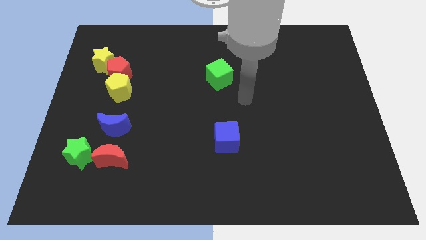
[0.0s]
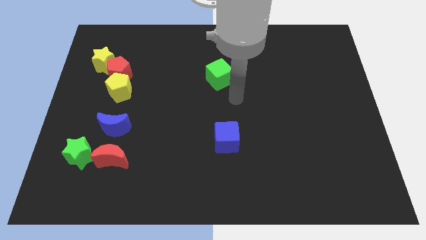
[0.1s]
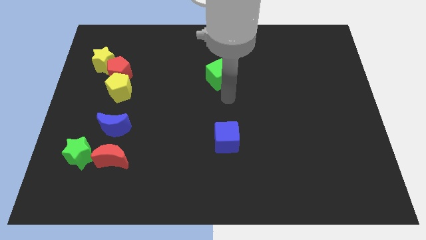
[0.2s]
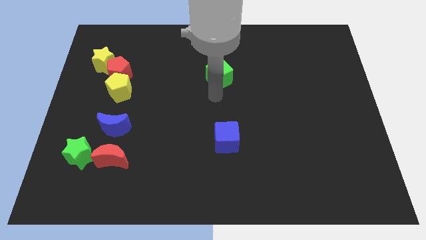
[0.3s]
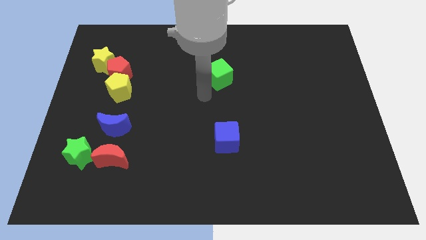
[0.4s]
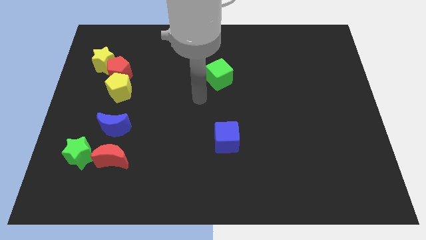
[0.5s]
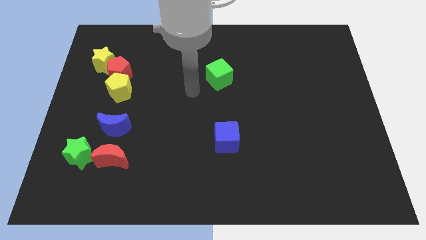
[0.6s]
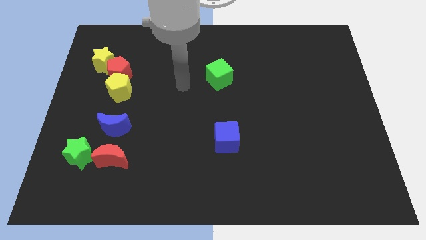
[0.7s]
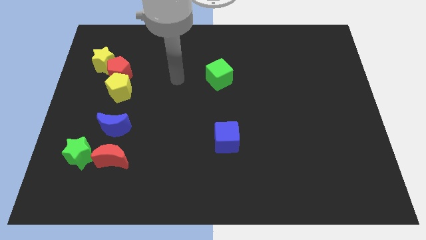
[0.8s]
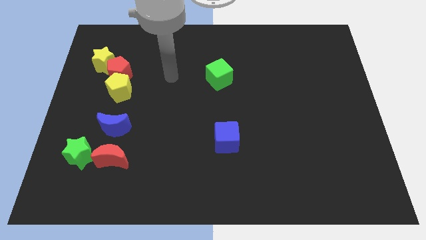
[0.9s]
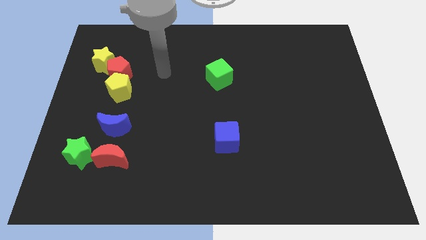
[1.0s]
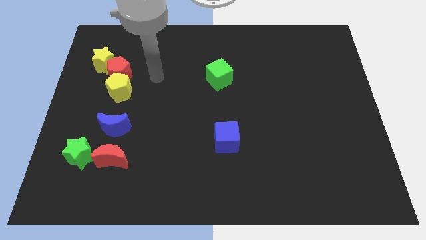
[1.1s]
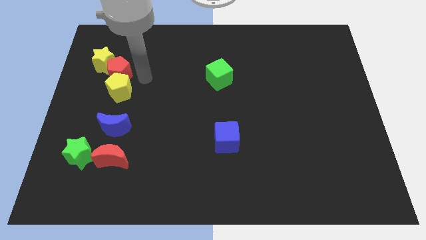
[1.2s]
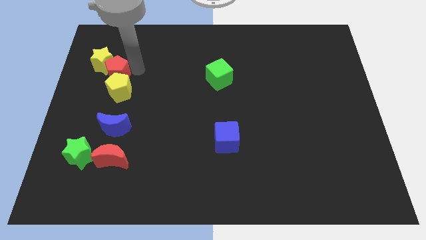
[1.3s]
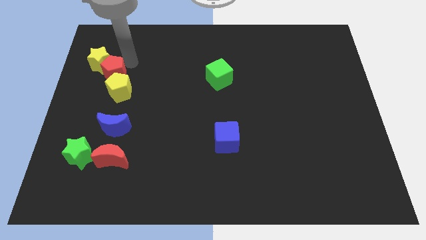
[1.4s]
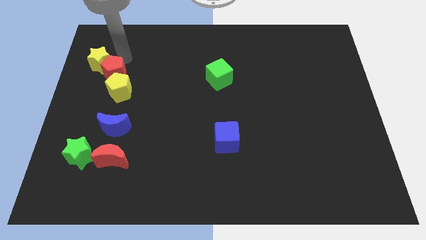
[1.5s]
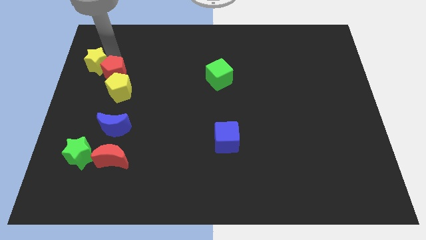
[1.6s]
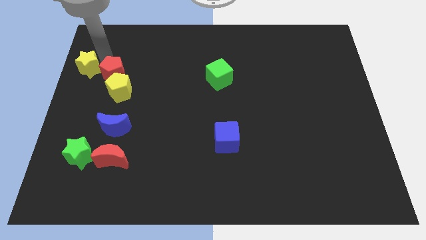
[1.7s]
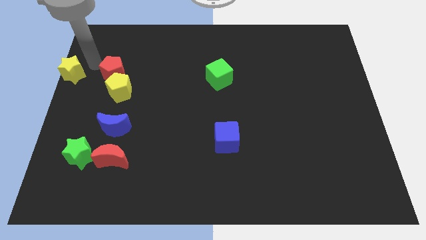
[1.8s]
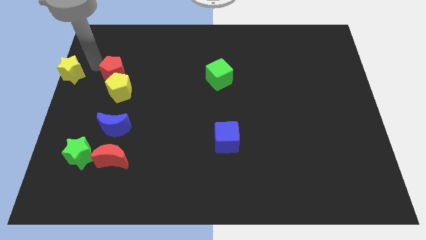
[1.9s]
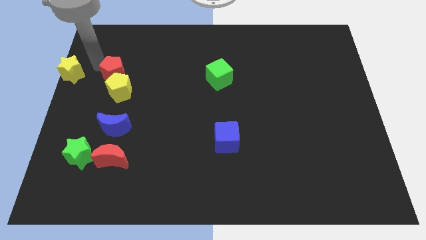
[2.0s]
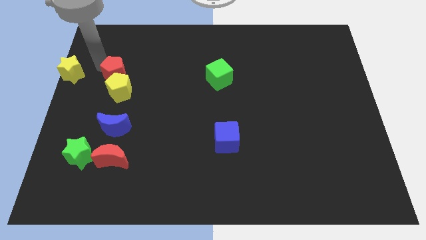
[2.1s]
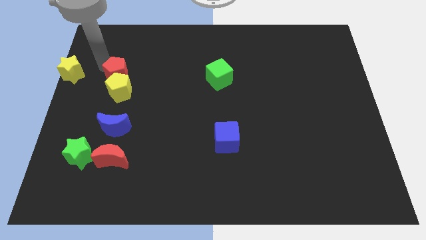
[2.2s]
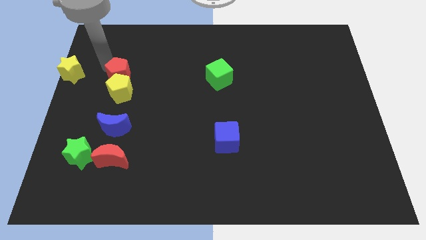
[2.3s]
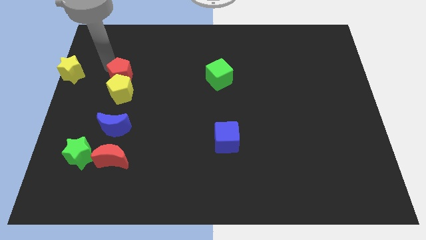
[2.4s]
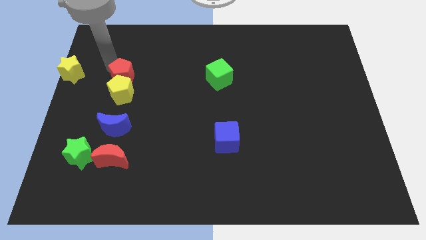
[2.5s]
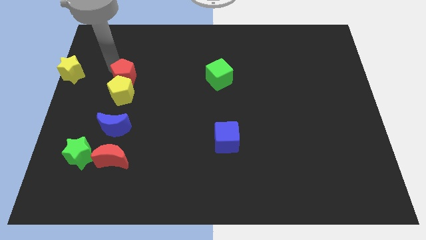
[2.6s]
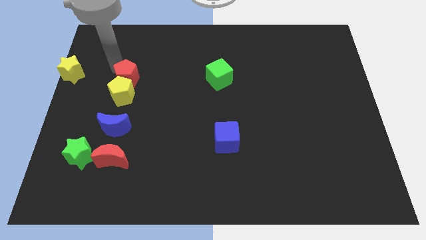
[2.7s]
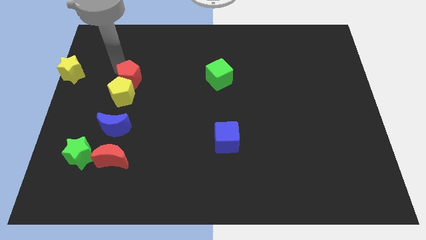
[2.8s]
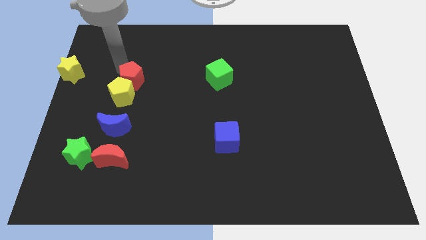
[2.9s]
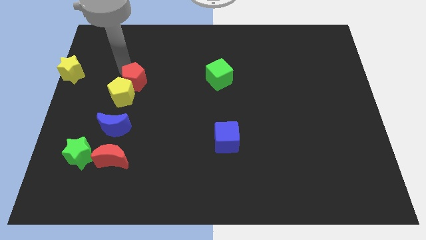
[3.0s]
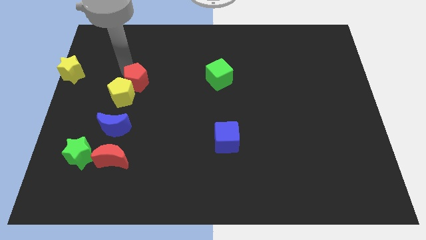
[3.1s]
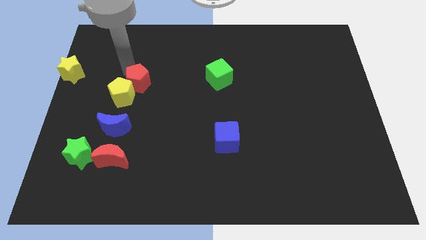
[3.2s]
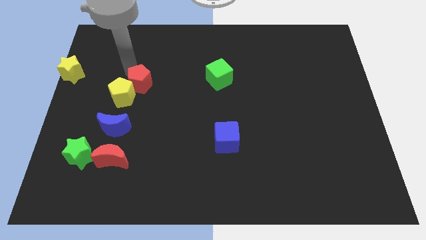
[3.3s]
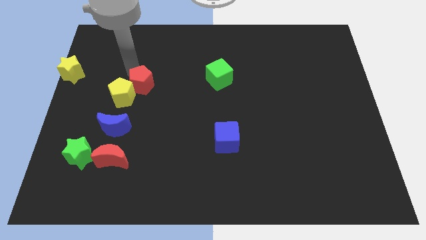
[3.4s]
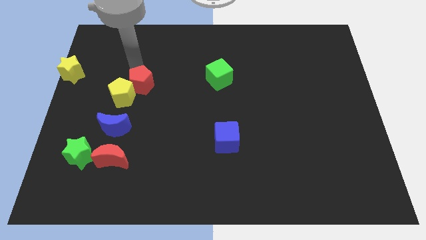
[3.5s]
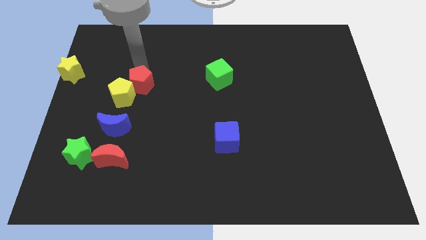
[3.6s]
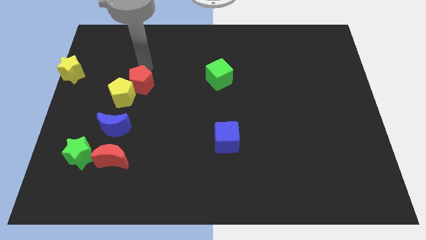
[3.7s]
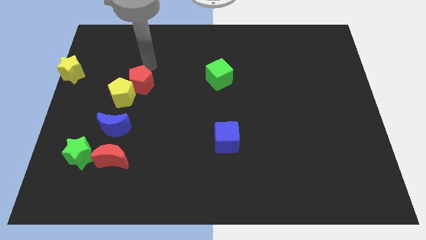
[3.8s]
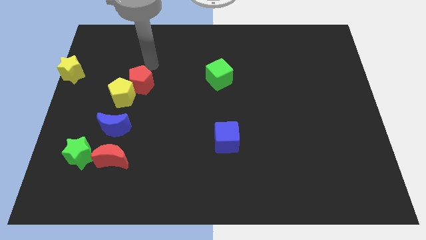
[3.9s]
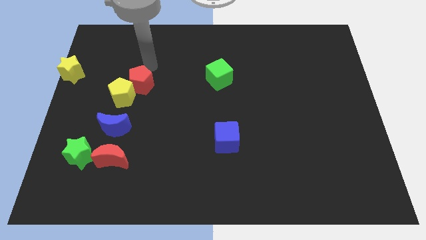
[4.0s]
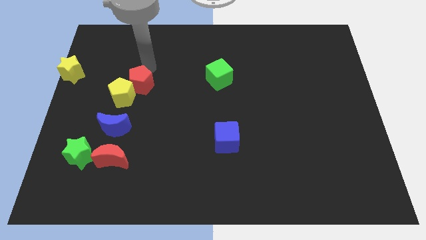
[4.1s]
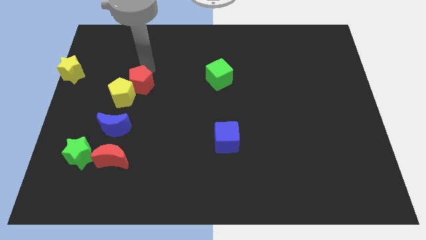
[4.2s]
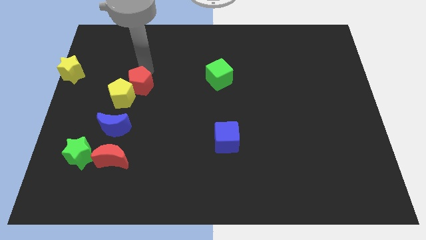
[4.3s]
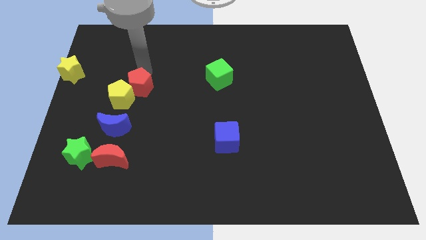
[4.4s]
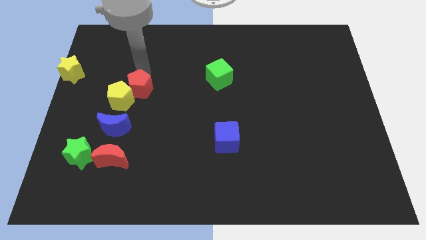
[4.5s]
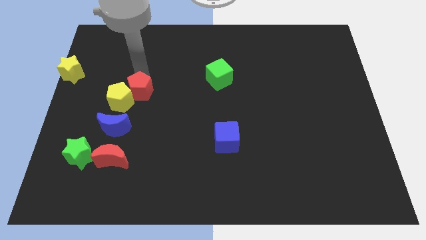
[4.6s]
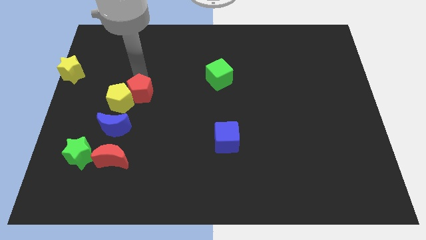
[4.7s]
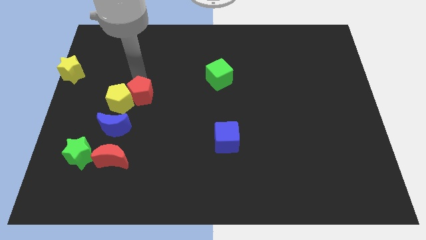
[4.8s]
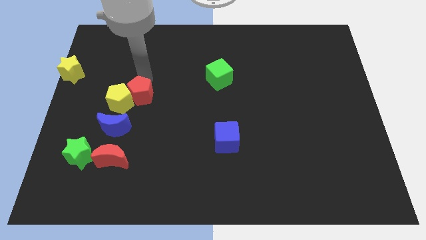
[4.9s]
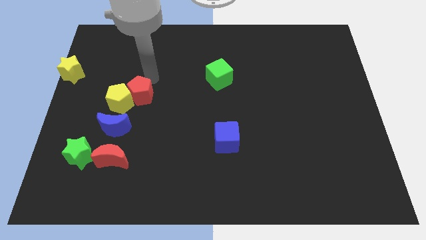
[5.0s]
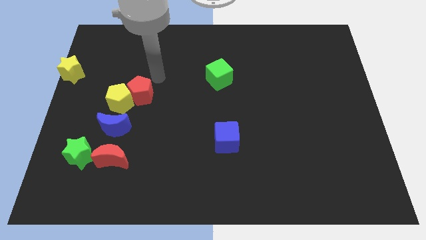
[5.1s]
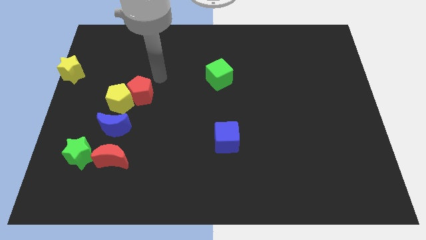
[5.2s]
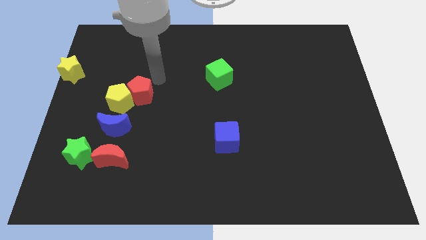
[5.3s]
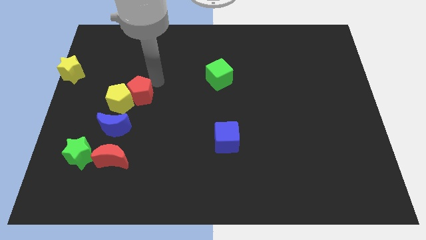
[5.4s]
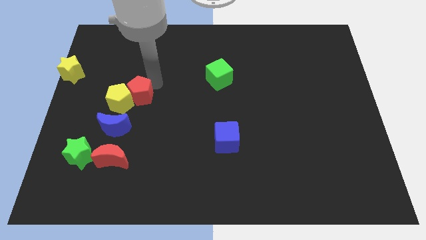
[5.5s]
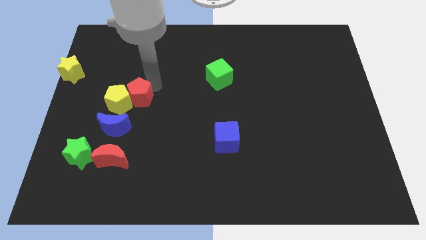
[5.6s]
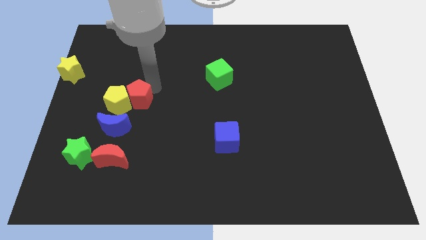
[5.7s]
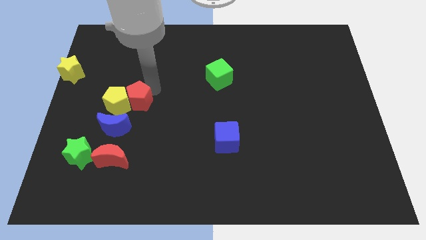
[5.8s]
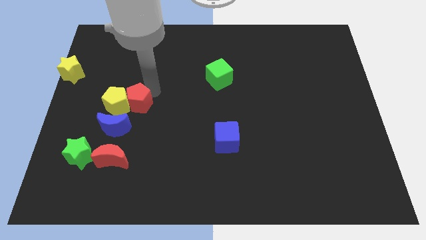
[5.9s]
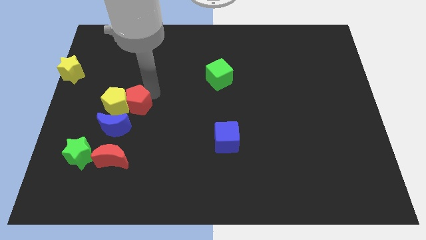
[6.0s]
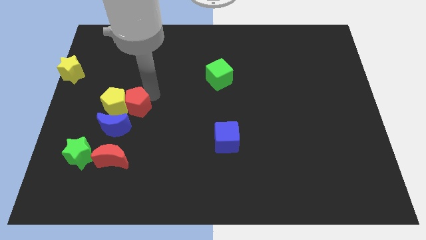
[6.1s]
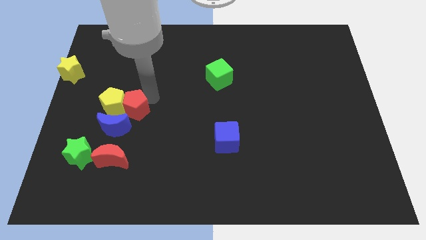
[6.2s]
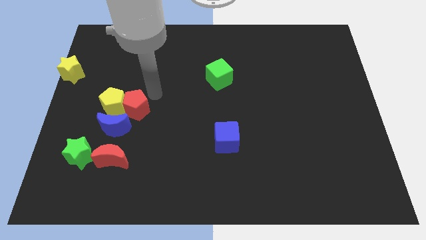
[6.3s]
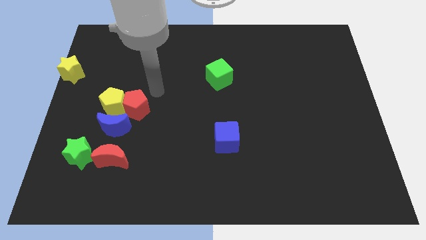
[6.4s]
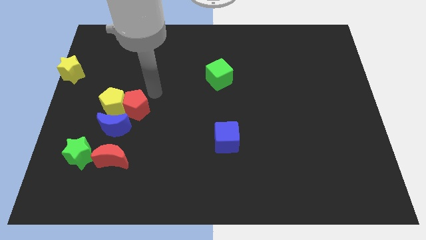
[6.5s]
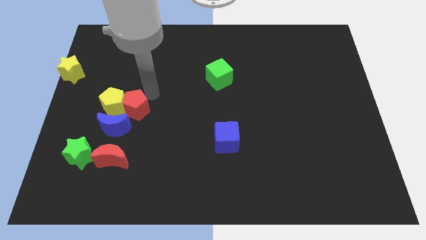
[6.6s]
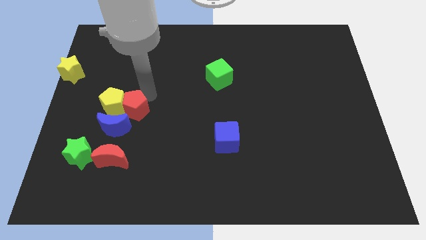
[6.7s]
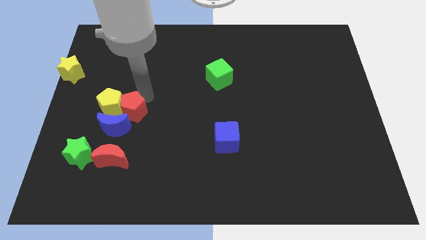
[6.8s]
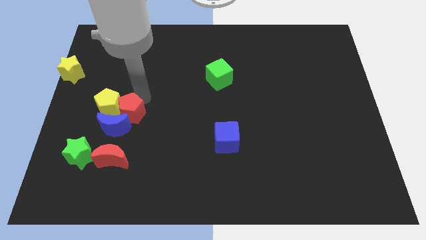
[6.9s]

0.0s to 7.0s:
put the red pentagon next to the blue moon

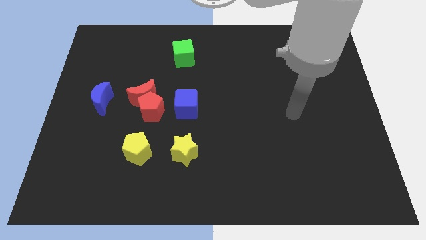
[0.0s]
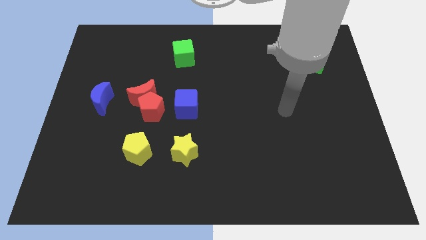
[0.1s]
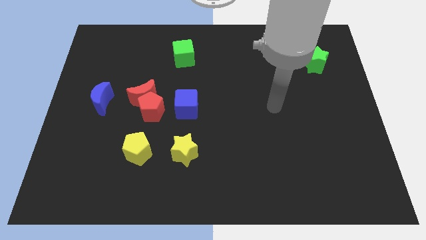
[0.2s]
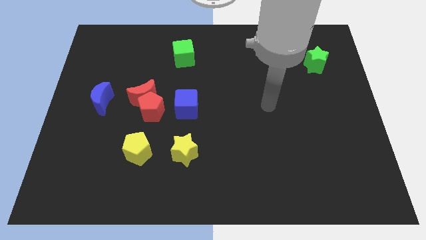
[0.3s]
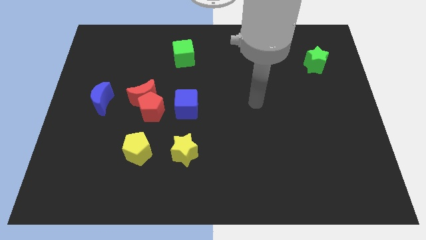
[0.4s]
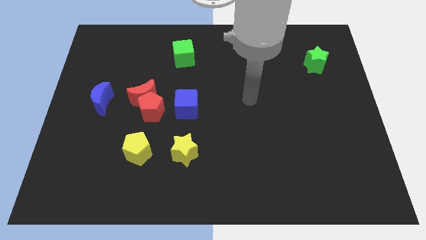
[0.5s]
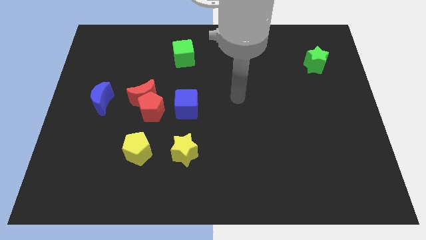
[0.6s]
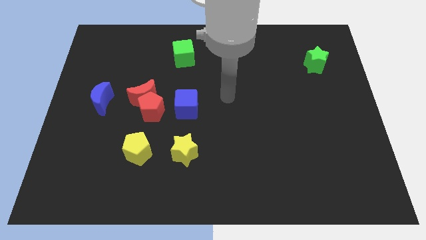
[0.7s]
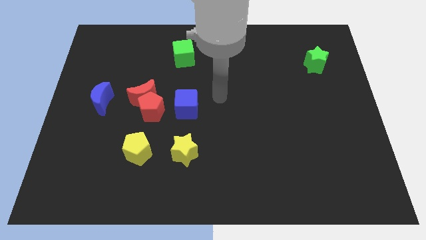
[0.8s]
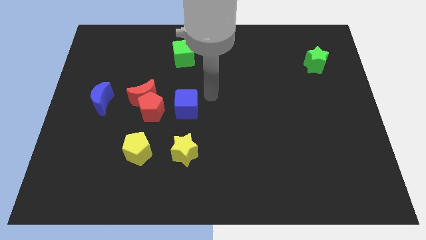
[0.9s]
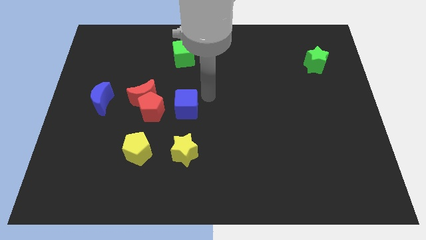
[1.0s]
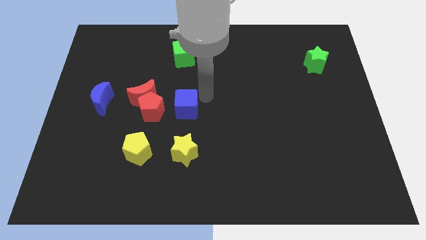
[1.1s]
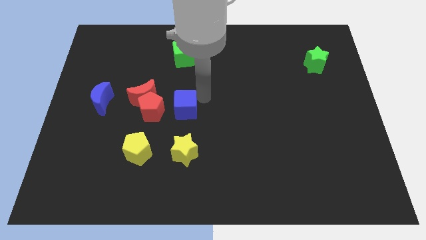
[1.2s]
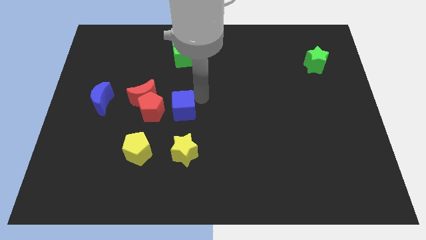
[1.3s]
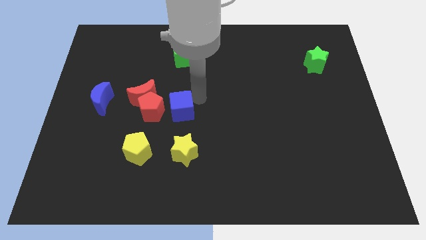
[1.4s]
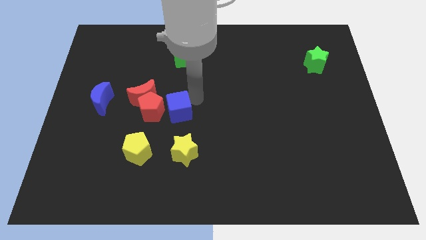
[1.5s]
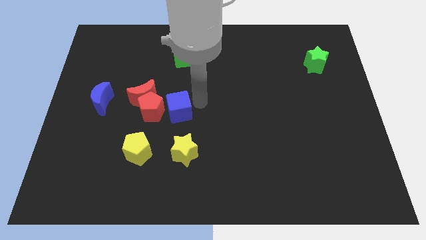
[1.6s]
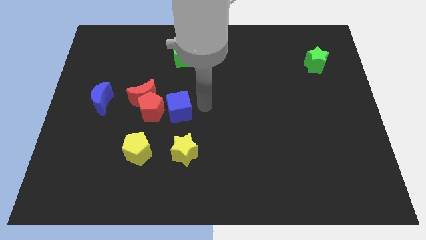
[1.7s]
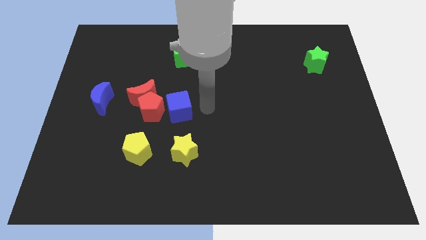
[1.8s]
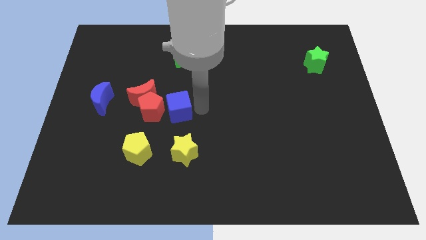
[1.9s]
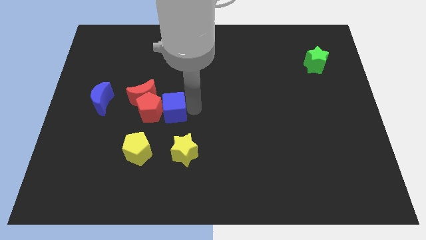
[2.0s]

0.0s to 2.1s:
push the blue cube close to the red pentagon
